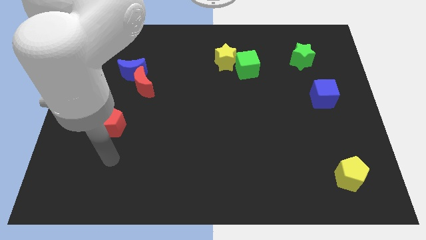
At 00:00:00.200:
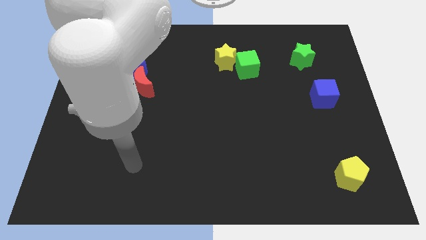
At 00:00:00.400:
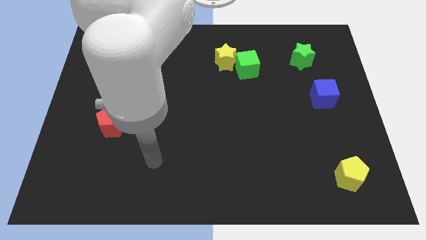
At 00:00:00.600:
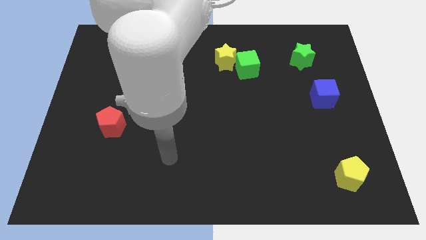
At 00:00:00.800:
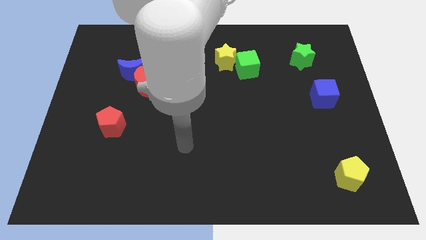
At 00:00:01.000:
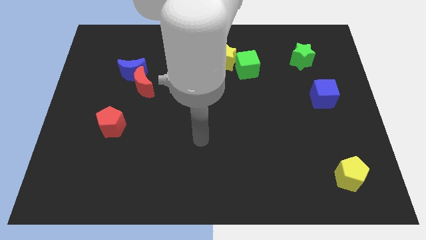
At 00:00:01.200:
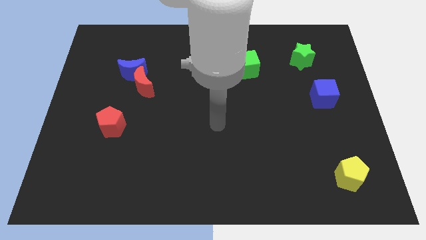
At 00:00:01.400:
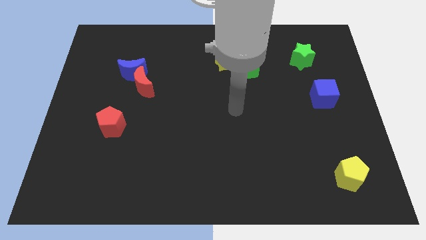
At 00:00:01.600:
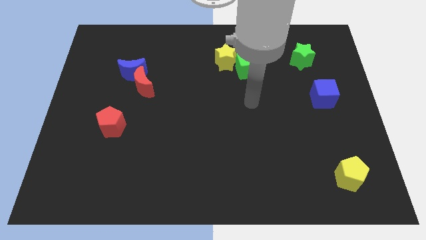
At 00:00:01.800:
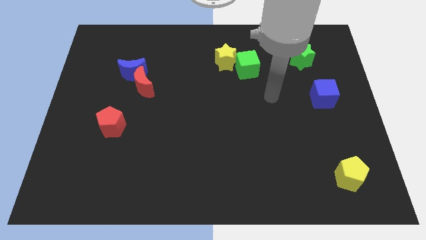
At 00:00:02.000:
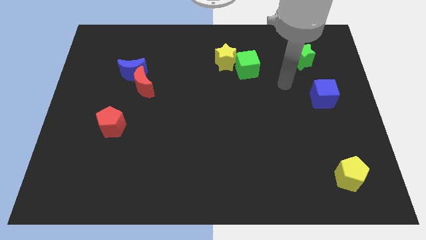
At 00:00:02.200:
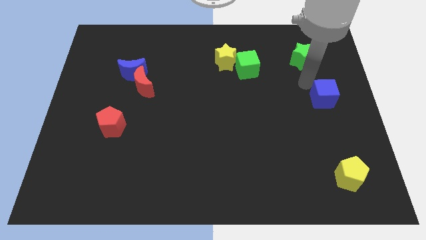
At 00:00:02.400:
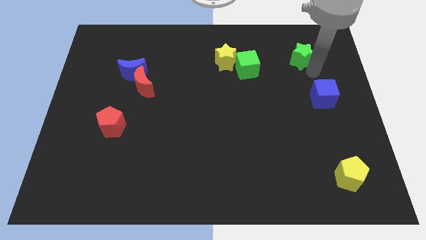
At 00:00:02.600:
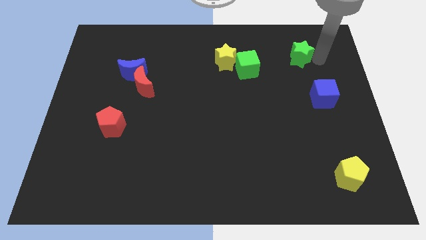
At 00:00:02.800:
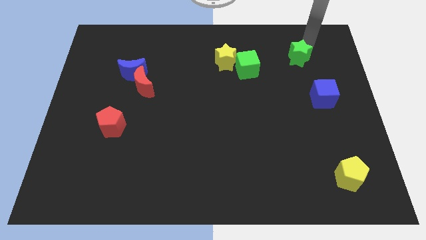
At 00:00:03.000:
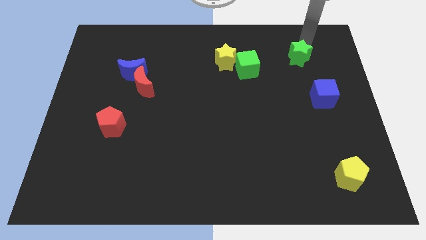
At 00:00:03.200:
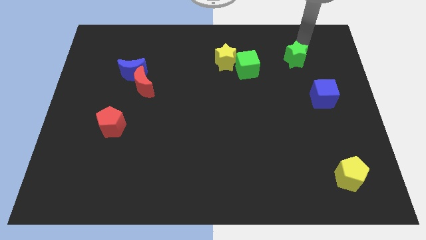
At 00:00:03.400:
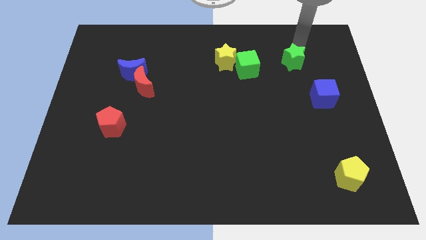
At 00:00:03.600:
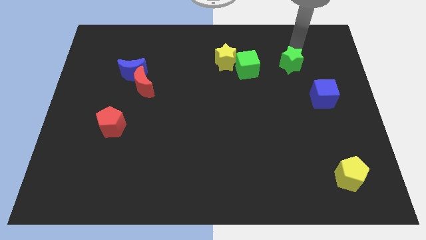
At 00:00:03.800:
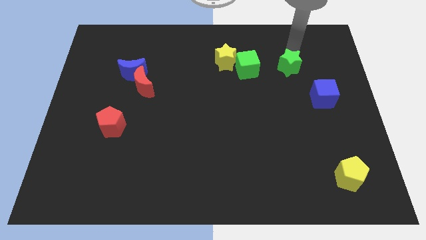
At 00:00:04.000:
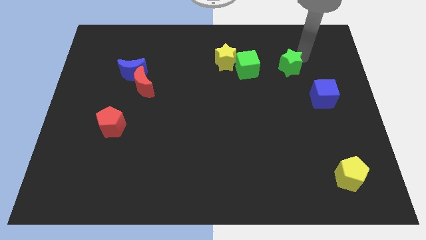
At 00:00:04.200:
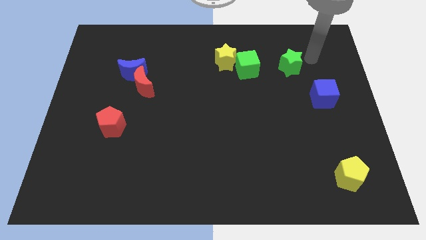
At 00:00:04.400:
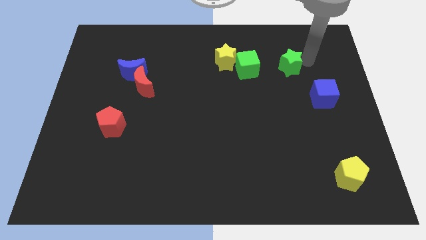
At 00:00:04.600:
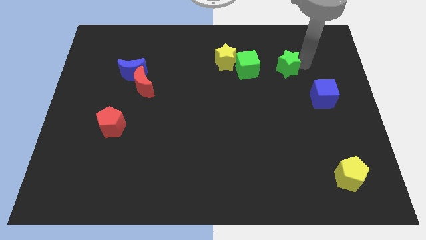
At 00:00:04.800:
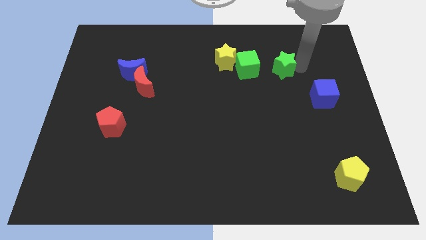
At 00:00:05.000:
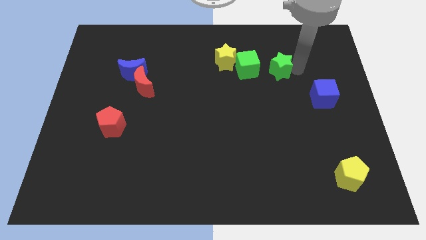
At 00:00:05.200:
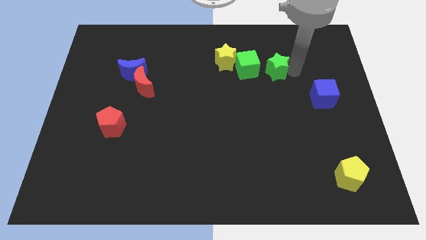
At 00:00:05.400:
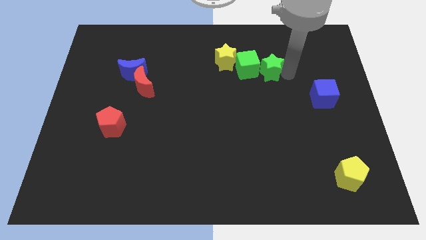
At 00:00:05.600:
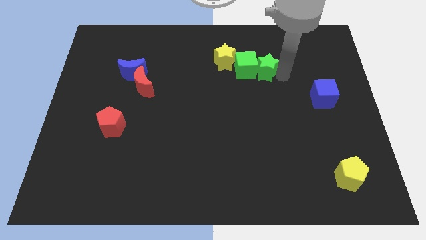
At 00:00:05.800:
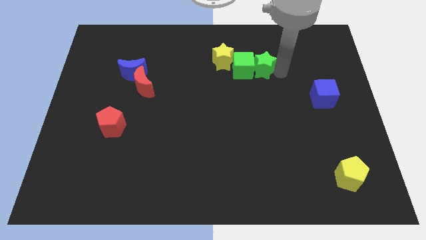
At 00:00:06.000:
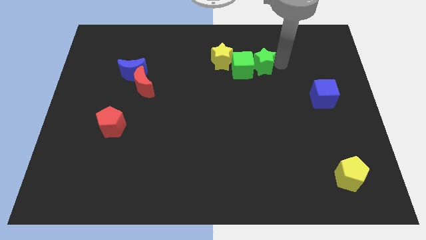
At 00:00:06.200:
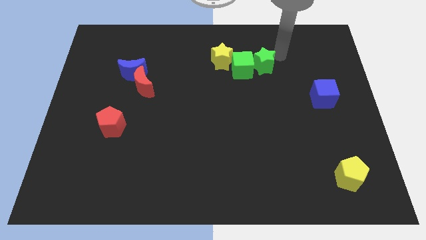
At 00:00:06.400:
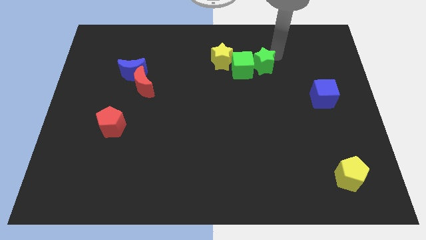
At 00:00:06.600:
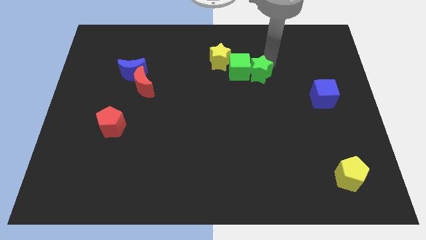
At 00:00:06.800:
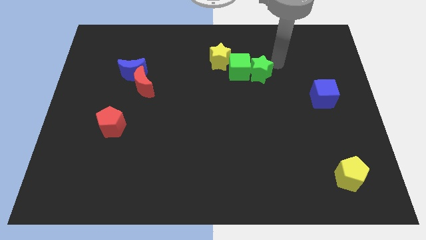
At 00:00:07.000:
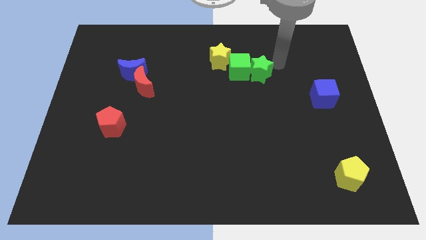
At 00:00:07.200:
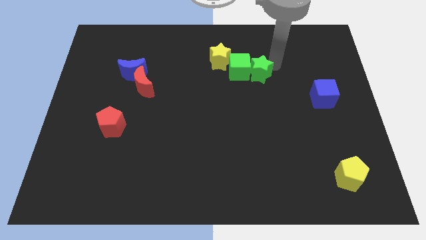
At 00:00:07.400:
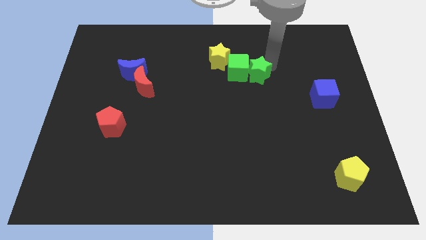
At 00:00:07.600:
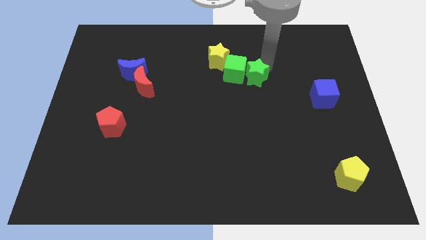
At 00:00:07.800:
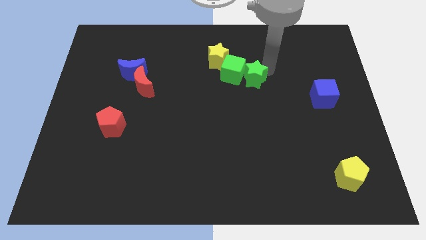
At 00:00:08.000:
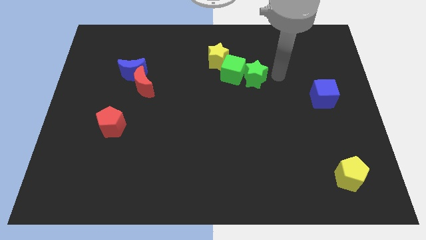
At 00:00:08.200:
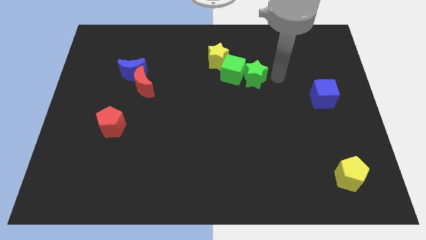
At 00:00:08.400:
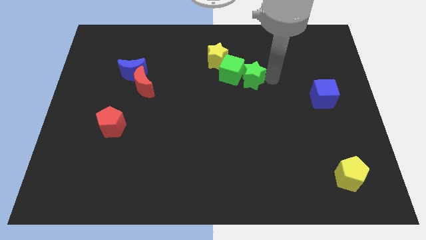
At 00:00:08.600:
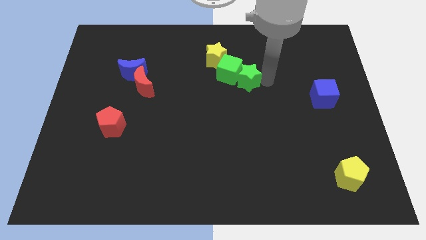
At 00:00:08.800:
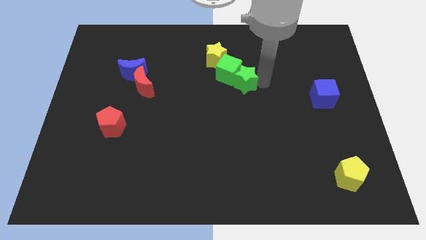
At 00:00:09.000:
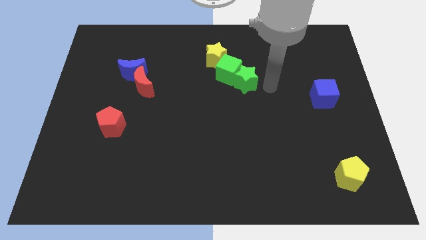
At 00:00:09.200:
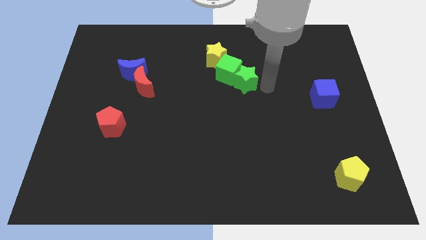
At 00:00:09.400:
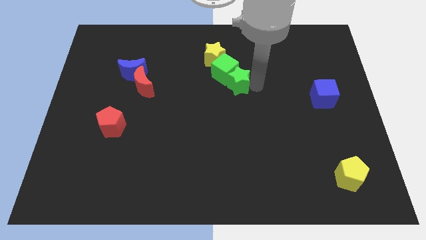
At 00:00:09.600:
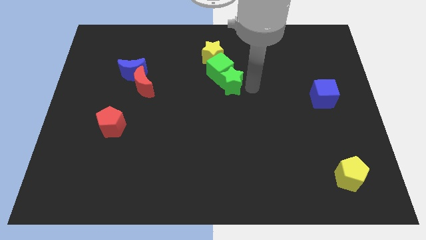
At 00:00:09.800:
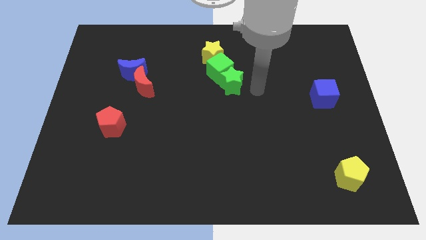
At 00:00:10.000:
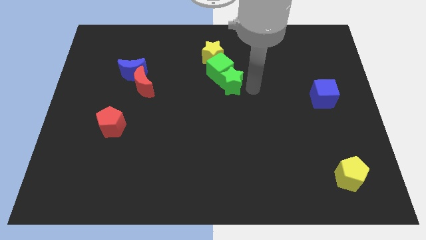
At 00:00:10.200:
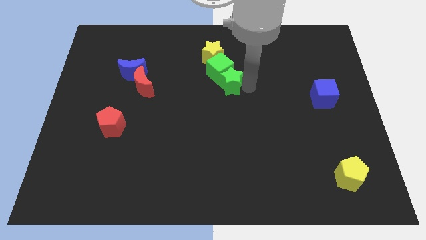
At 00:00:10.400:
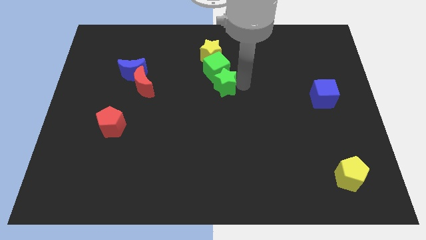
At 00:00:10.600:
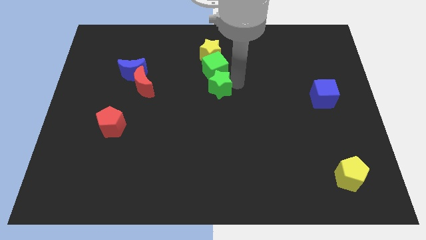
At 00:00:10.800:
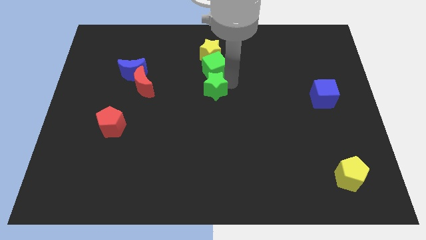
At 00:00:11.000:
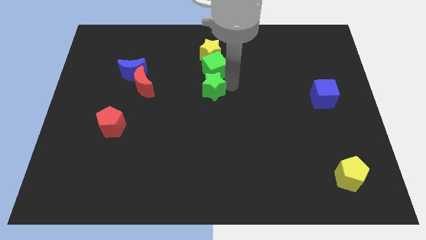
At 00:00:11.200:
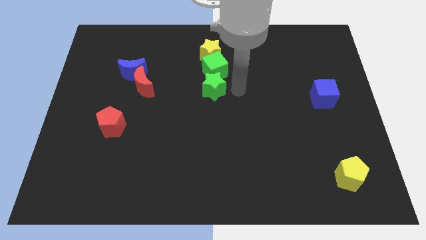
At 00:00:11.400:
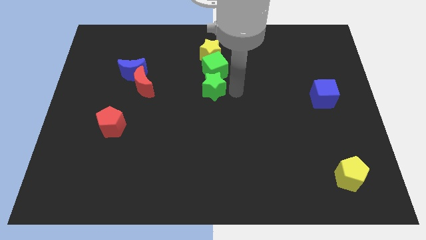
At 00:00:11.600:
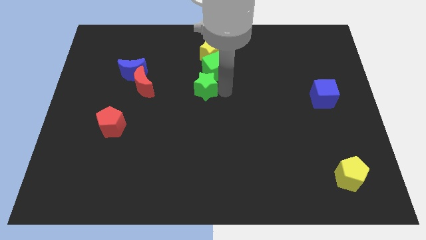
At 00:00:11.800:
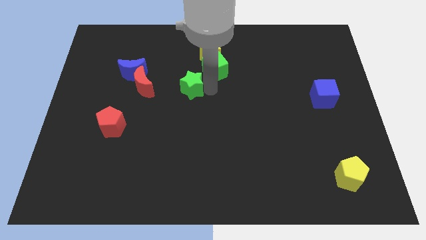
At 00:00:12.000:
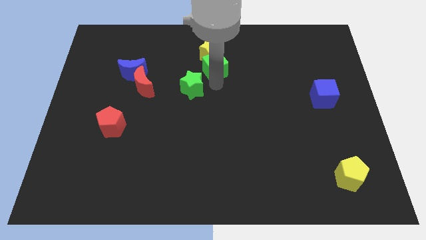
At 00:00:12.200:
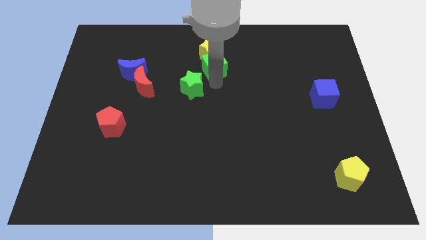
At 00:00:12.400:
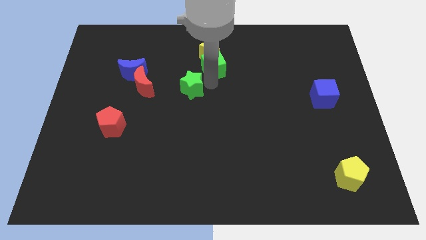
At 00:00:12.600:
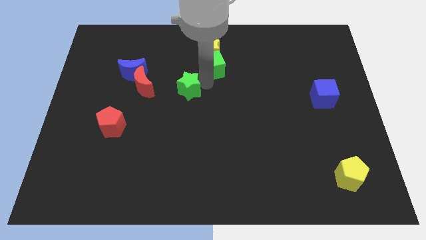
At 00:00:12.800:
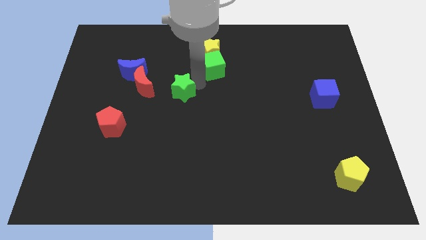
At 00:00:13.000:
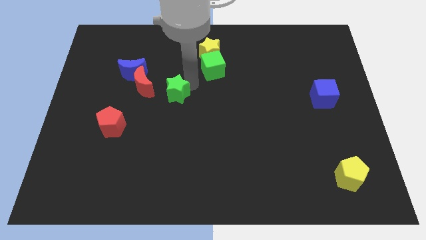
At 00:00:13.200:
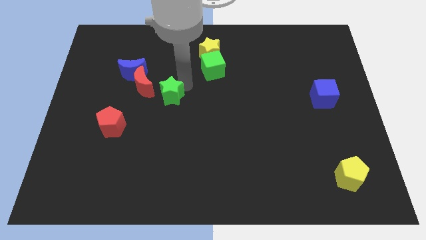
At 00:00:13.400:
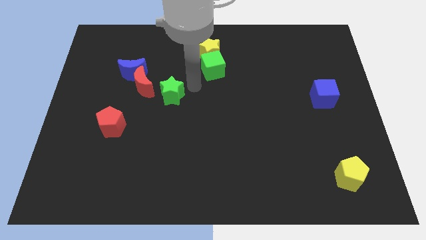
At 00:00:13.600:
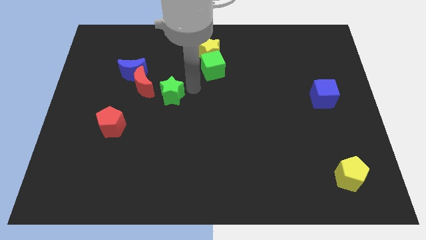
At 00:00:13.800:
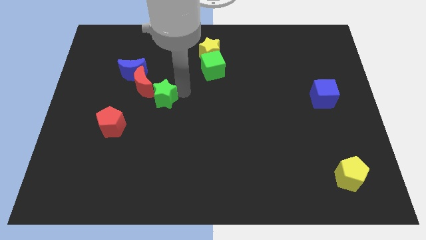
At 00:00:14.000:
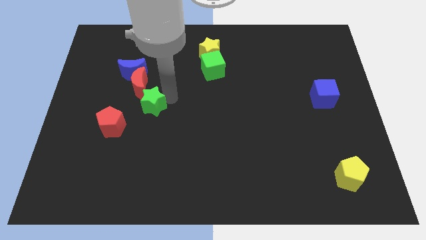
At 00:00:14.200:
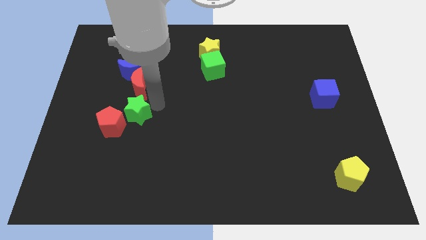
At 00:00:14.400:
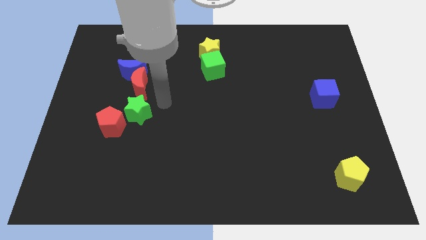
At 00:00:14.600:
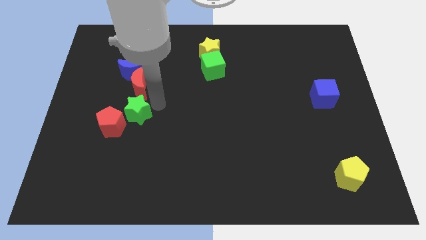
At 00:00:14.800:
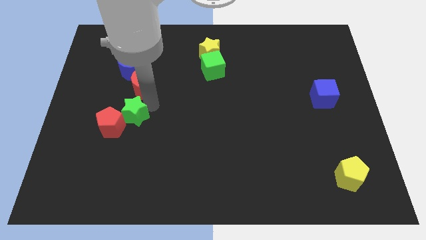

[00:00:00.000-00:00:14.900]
push the green star next to the red pentagon
